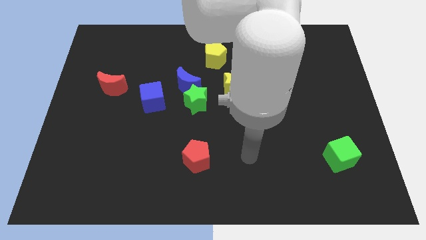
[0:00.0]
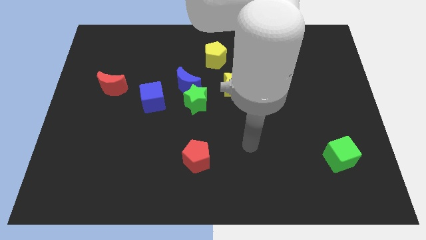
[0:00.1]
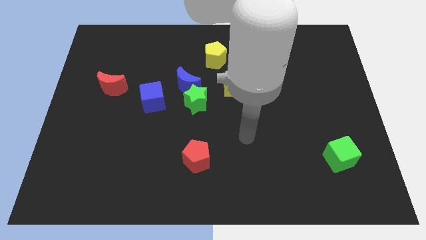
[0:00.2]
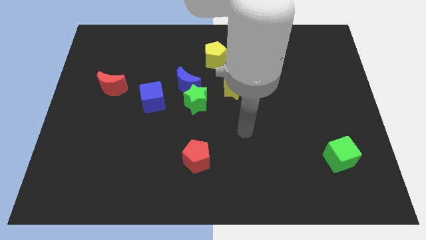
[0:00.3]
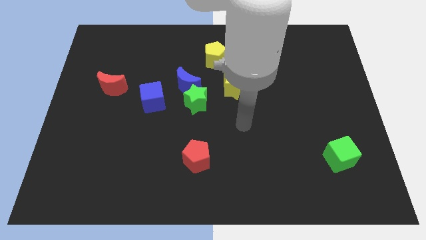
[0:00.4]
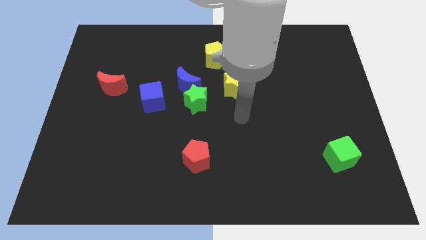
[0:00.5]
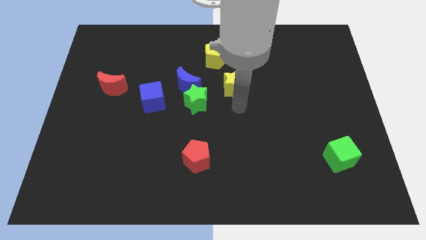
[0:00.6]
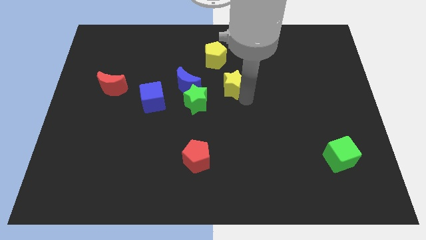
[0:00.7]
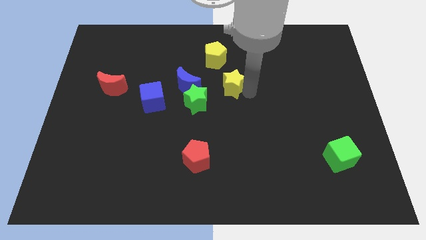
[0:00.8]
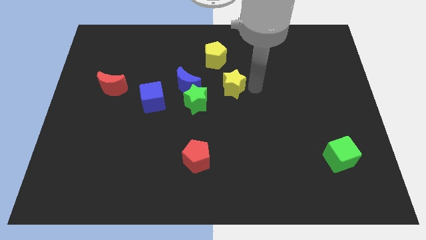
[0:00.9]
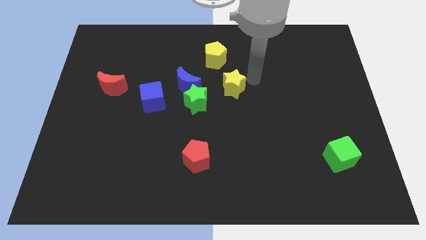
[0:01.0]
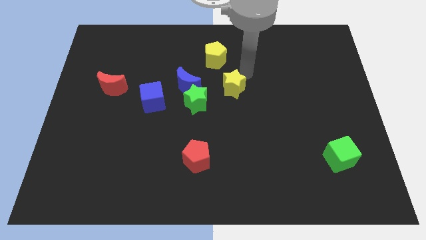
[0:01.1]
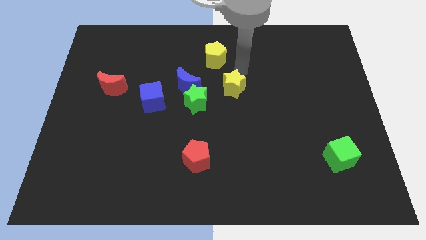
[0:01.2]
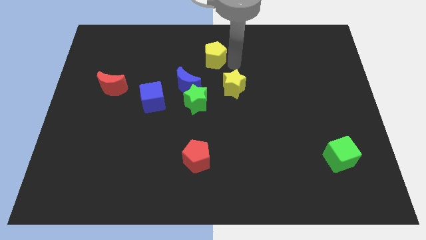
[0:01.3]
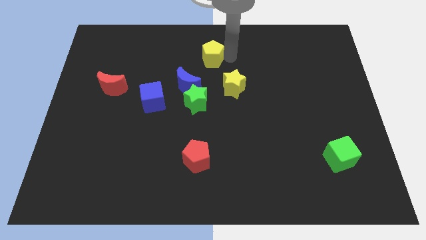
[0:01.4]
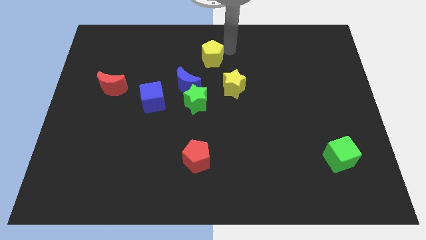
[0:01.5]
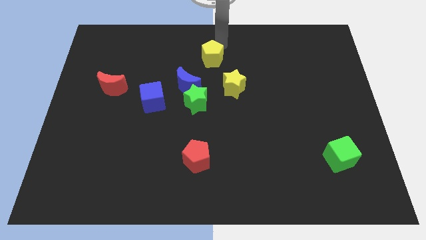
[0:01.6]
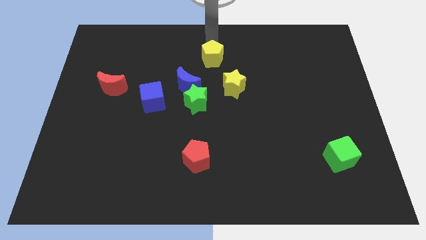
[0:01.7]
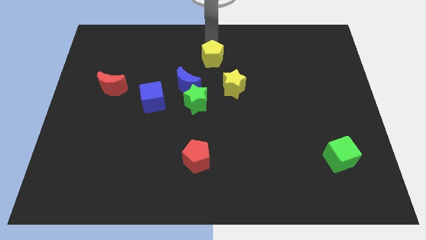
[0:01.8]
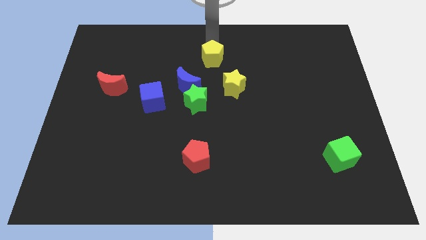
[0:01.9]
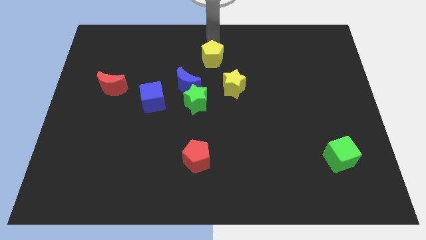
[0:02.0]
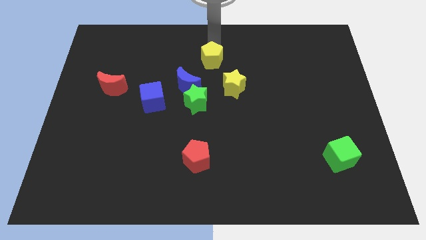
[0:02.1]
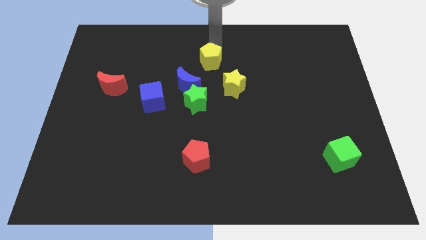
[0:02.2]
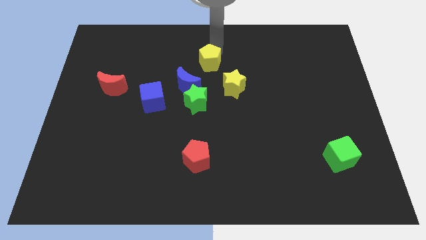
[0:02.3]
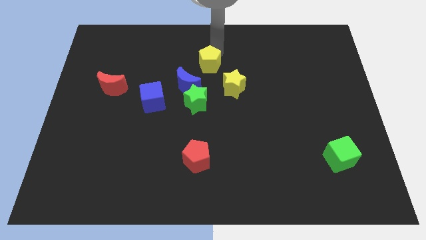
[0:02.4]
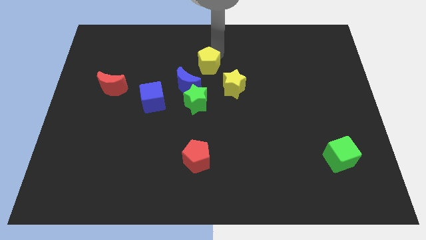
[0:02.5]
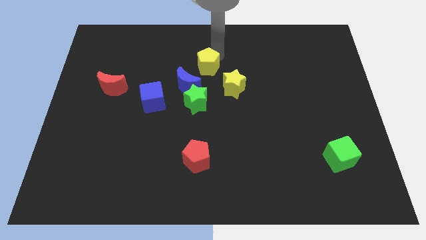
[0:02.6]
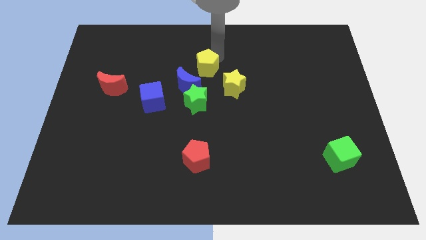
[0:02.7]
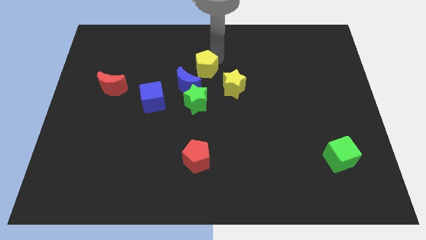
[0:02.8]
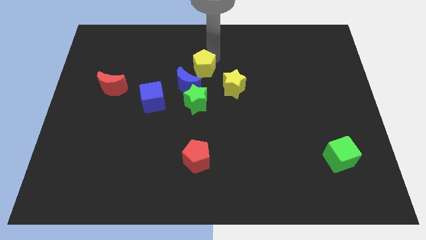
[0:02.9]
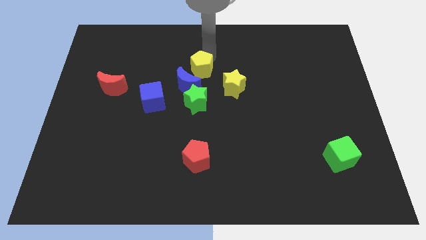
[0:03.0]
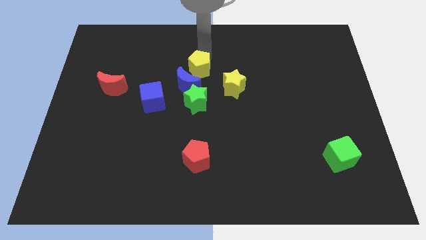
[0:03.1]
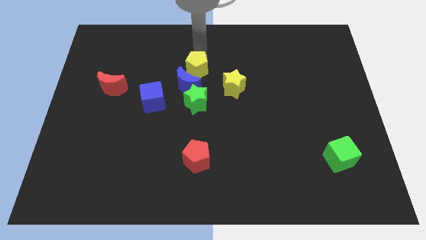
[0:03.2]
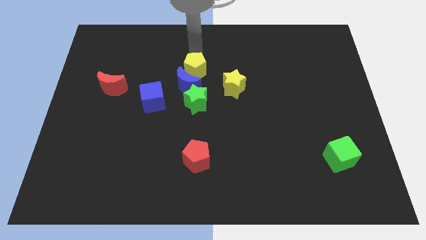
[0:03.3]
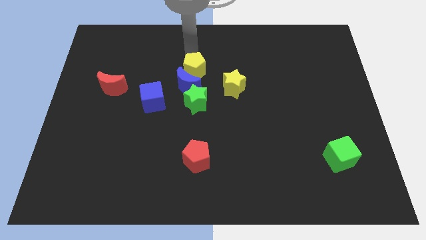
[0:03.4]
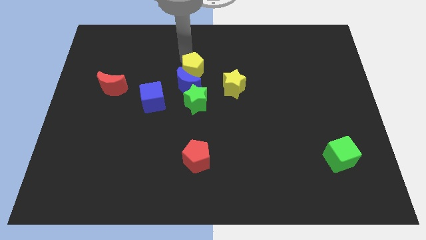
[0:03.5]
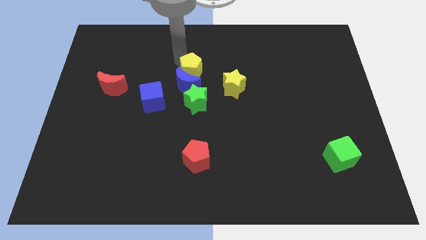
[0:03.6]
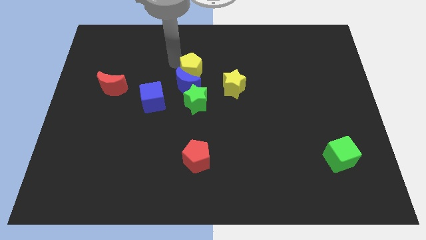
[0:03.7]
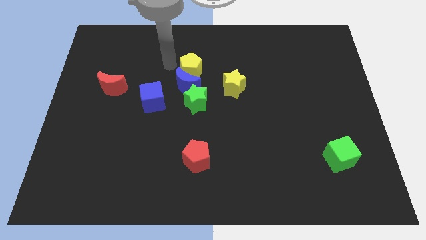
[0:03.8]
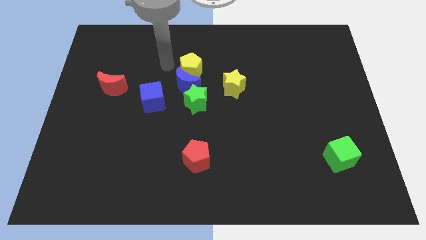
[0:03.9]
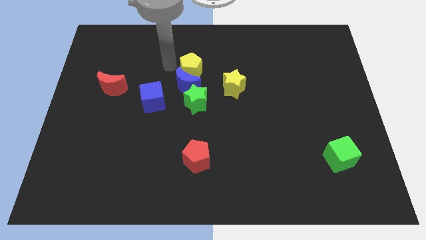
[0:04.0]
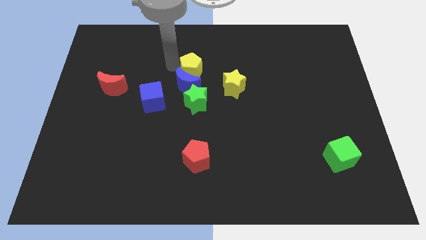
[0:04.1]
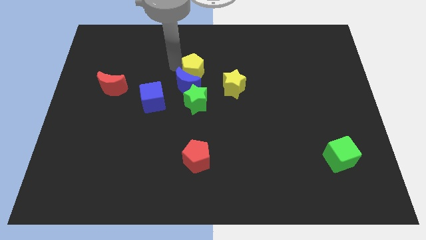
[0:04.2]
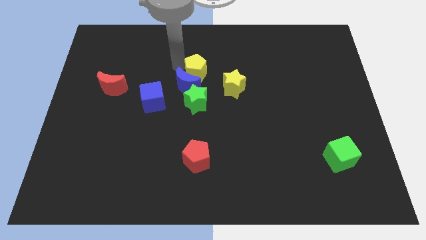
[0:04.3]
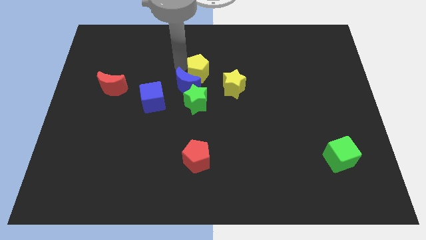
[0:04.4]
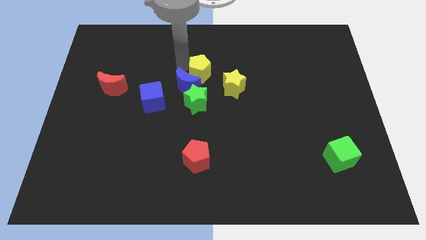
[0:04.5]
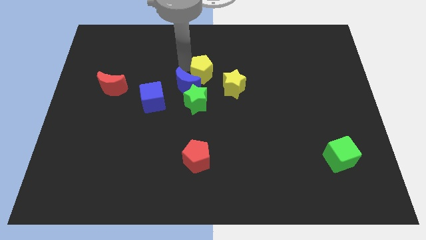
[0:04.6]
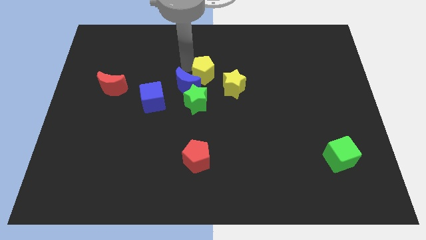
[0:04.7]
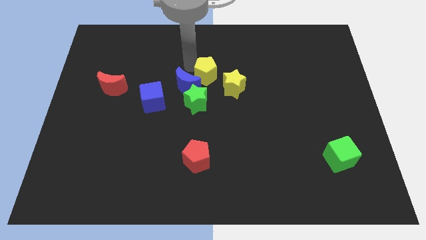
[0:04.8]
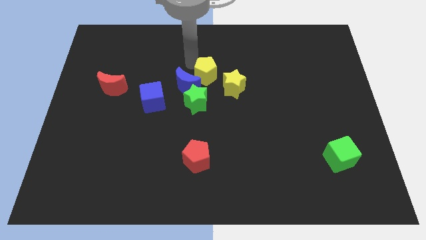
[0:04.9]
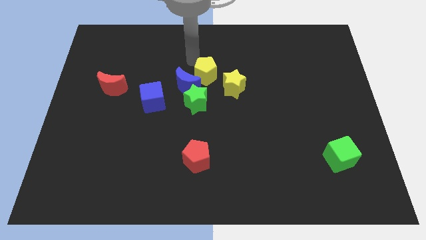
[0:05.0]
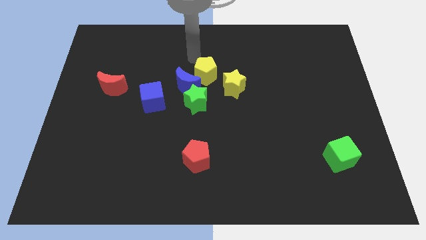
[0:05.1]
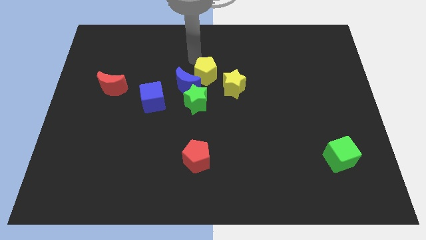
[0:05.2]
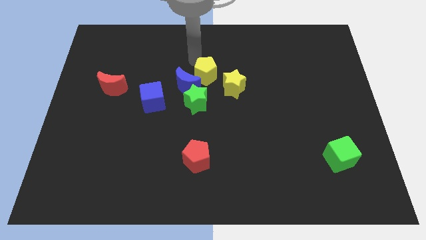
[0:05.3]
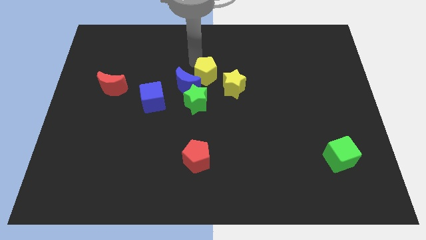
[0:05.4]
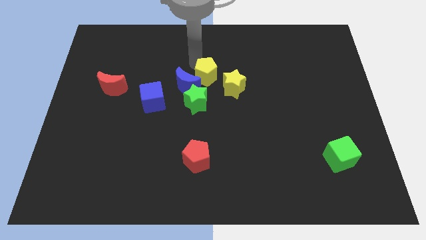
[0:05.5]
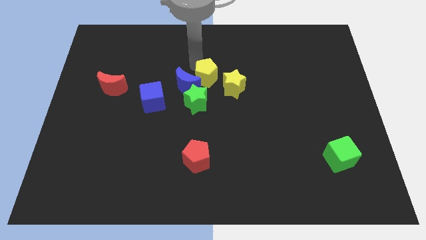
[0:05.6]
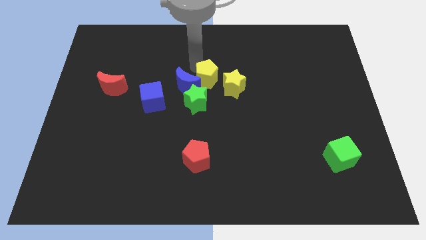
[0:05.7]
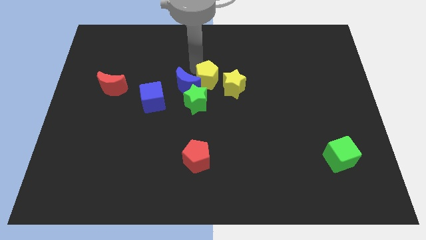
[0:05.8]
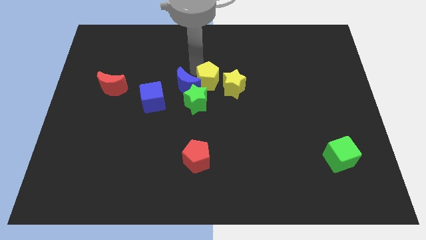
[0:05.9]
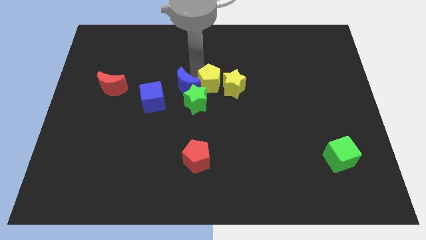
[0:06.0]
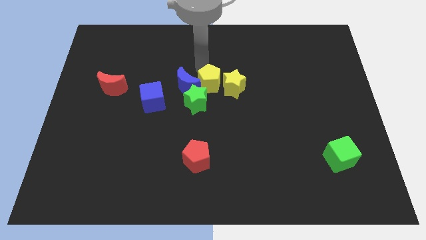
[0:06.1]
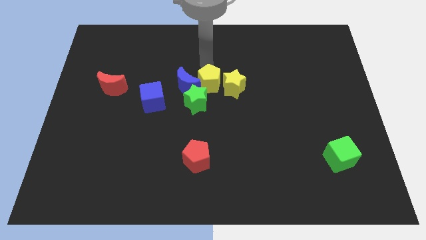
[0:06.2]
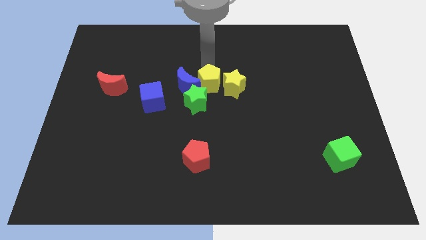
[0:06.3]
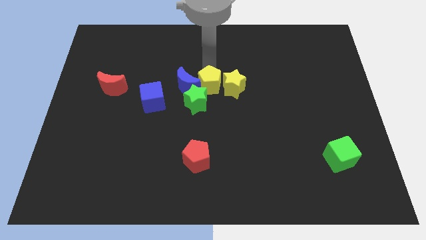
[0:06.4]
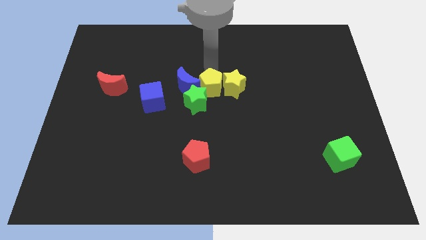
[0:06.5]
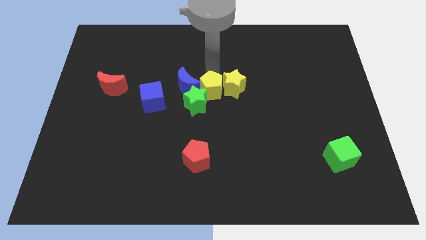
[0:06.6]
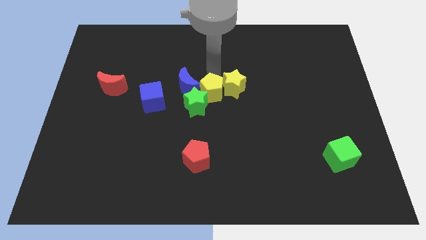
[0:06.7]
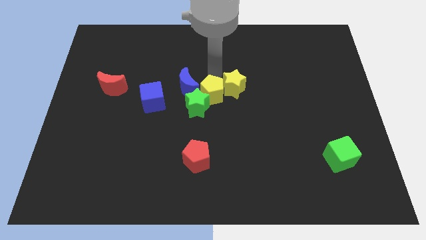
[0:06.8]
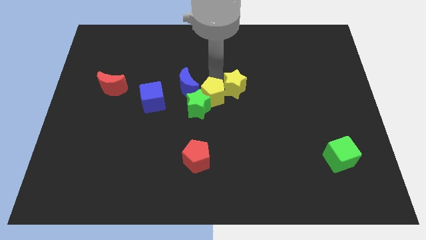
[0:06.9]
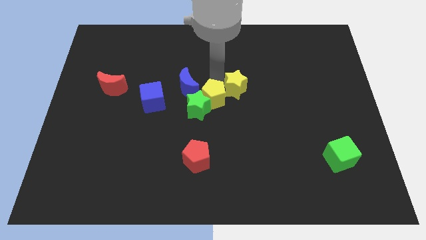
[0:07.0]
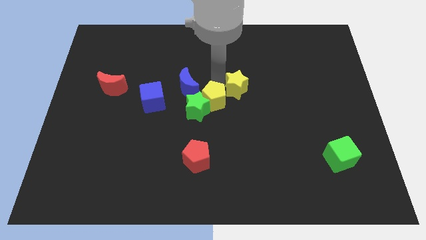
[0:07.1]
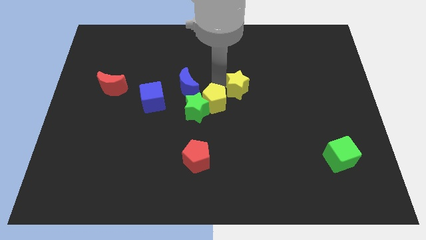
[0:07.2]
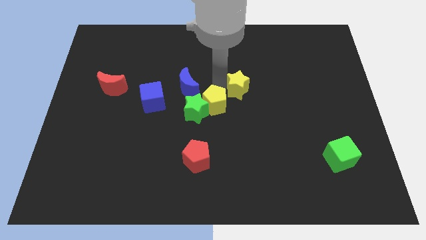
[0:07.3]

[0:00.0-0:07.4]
move the yellow pentagon to the top of the red pentagon
